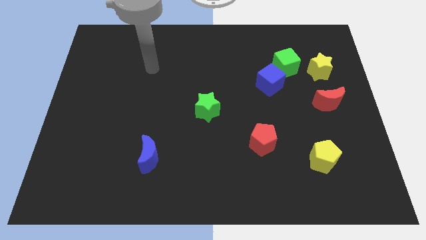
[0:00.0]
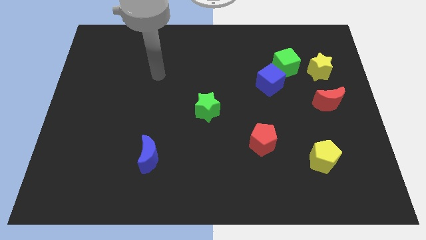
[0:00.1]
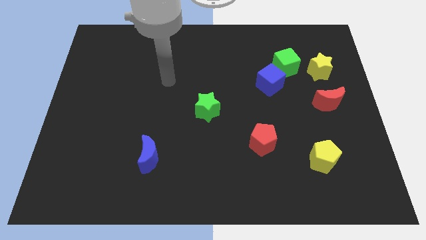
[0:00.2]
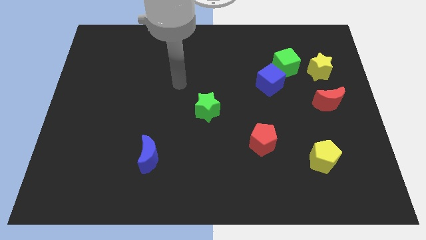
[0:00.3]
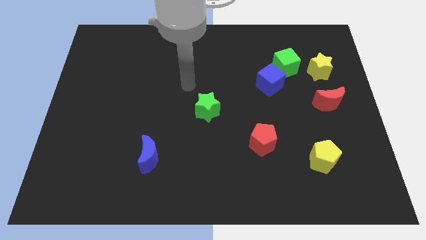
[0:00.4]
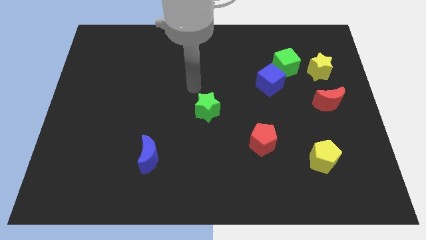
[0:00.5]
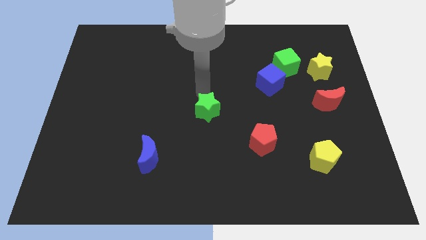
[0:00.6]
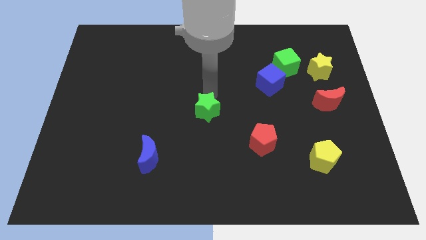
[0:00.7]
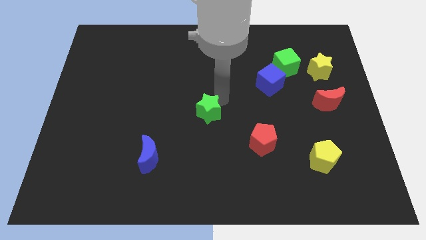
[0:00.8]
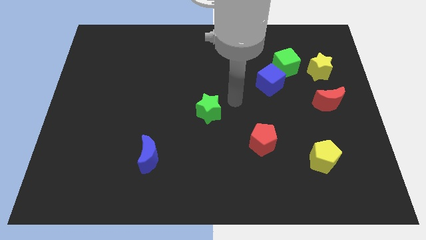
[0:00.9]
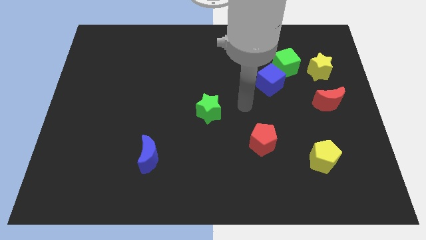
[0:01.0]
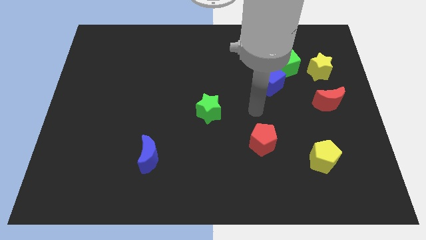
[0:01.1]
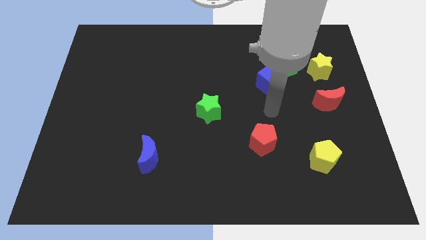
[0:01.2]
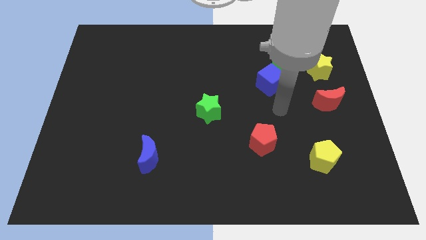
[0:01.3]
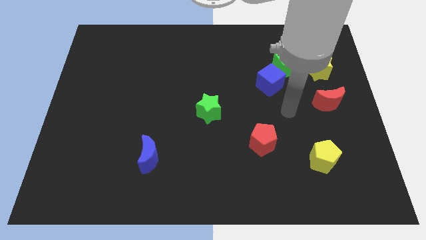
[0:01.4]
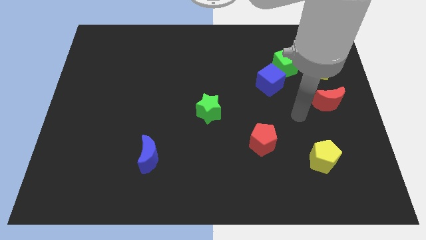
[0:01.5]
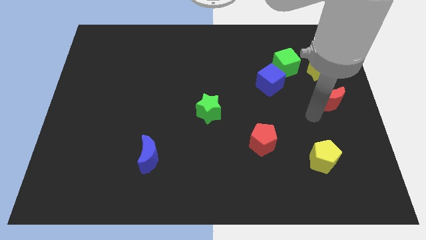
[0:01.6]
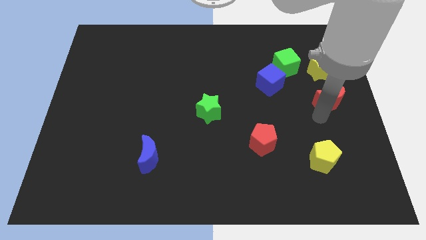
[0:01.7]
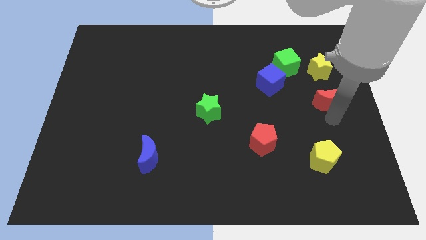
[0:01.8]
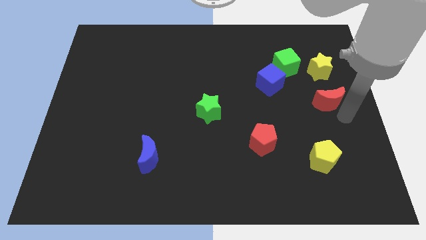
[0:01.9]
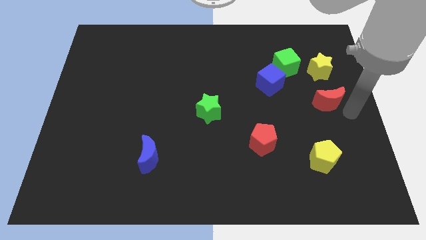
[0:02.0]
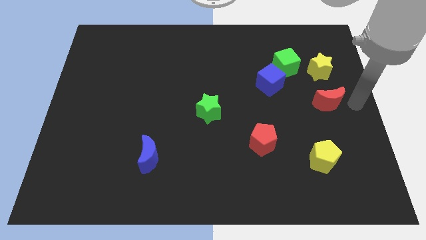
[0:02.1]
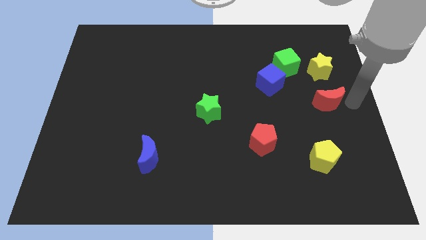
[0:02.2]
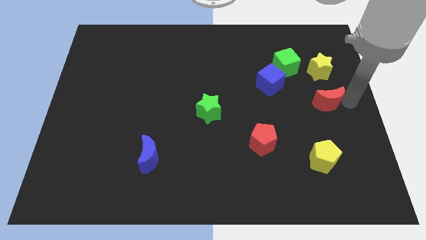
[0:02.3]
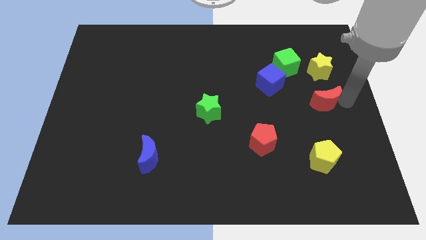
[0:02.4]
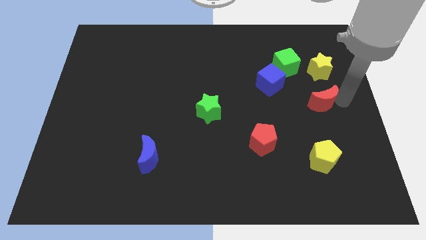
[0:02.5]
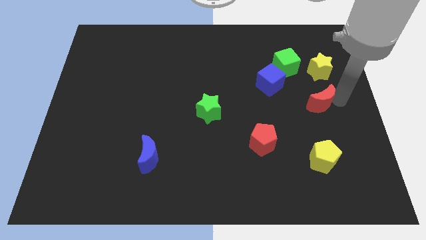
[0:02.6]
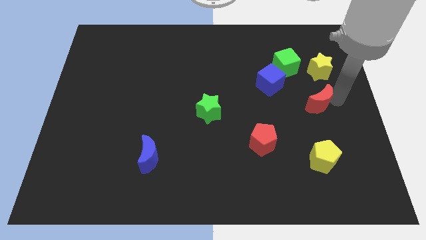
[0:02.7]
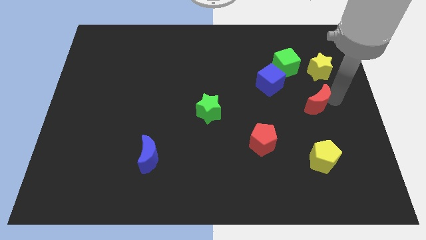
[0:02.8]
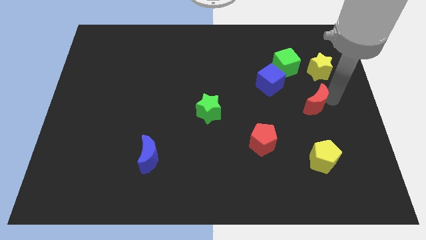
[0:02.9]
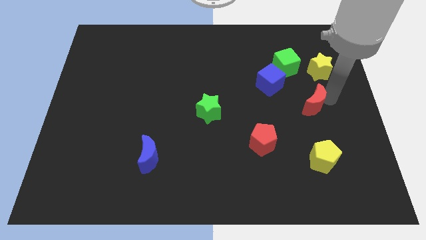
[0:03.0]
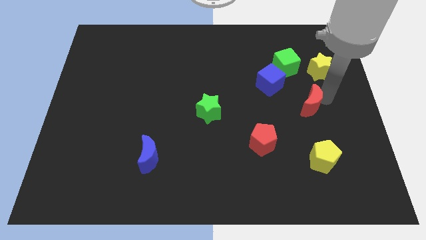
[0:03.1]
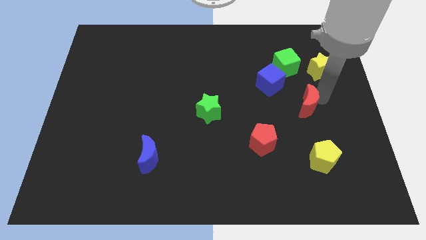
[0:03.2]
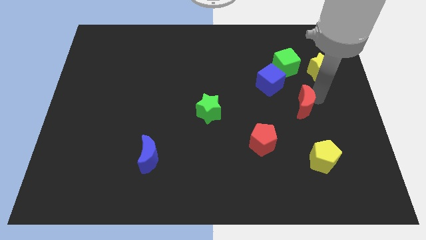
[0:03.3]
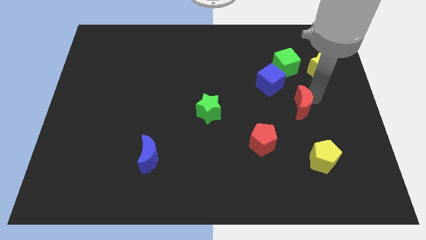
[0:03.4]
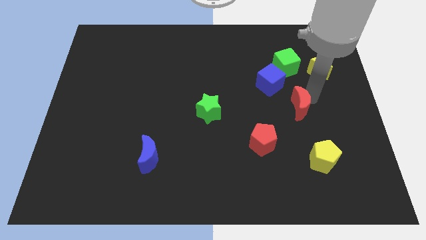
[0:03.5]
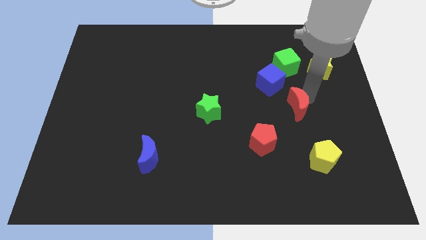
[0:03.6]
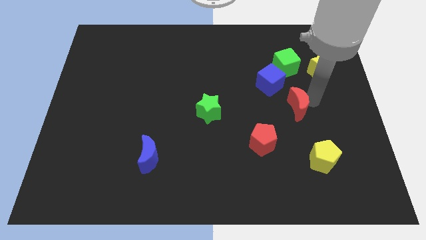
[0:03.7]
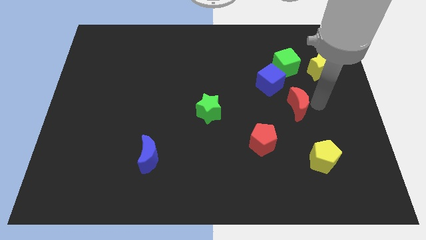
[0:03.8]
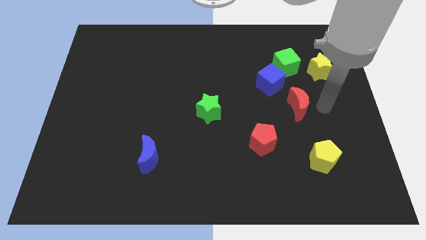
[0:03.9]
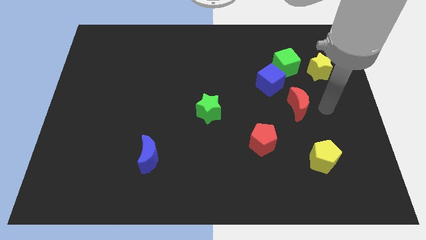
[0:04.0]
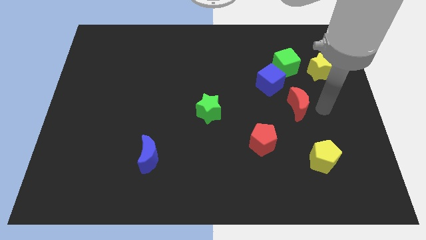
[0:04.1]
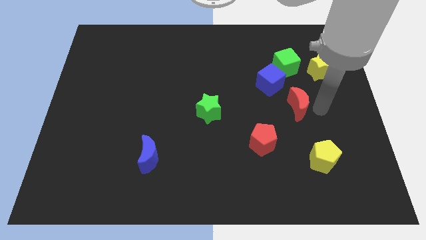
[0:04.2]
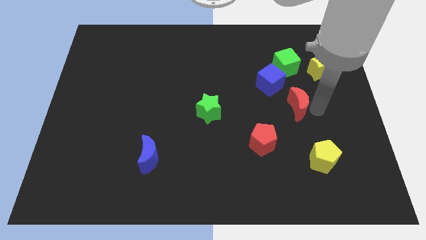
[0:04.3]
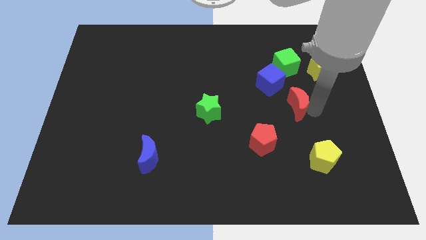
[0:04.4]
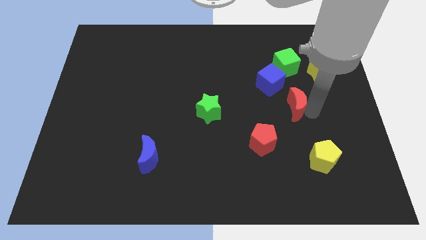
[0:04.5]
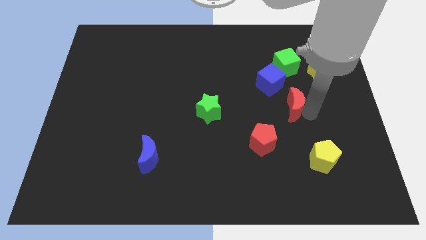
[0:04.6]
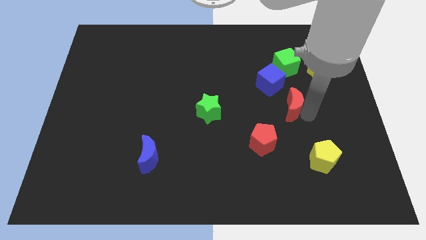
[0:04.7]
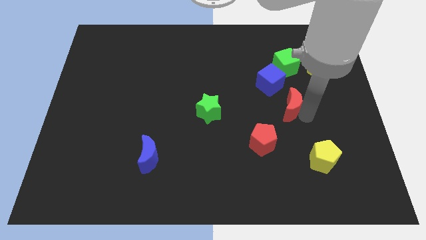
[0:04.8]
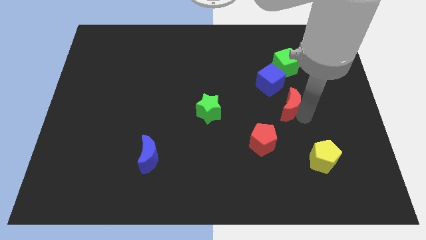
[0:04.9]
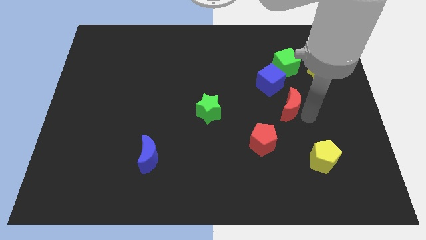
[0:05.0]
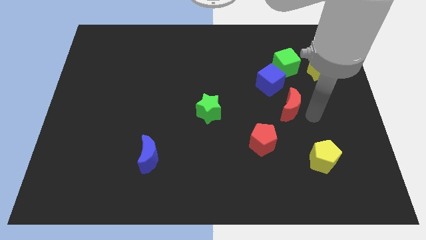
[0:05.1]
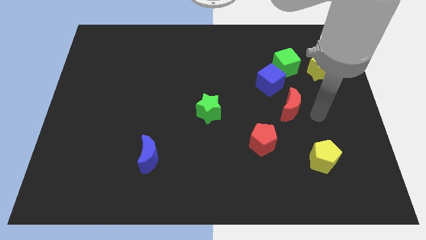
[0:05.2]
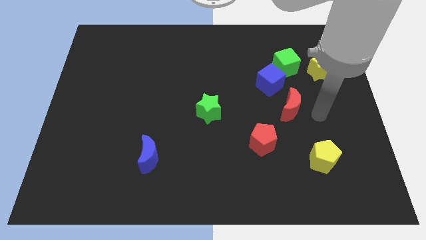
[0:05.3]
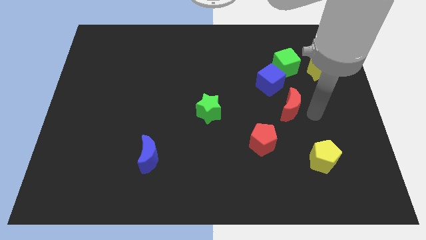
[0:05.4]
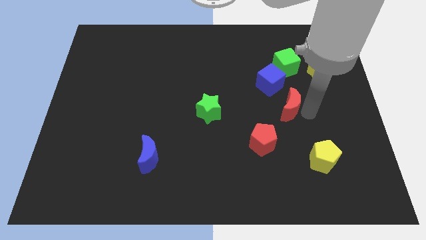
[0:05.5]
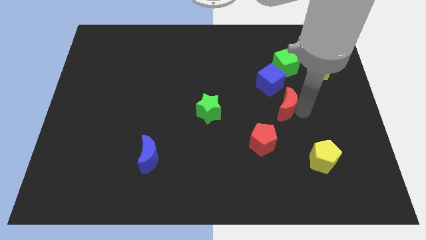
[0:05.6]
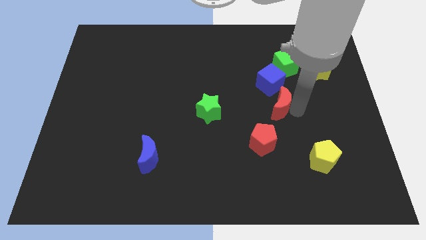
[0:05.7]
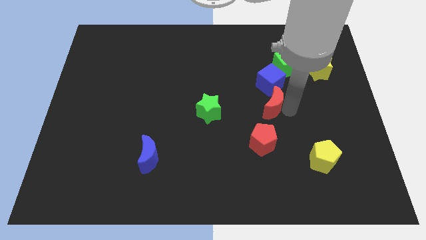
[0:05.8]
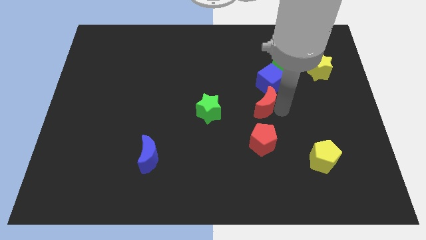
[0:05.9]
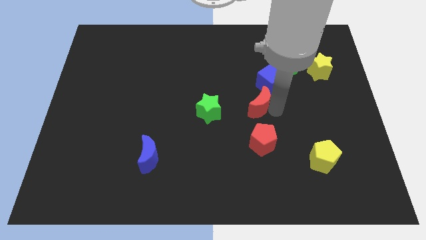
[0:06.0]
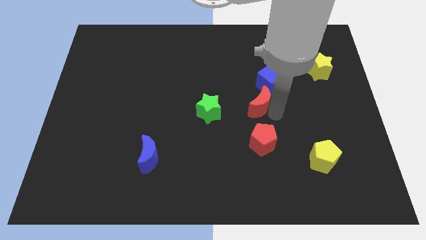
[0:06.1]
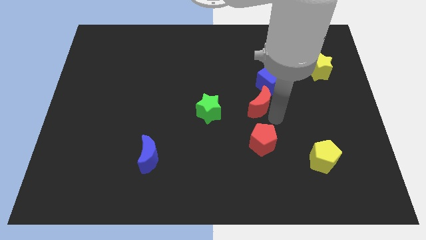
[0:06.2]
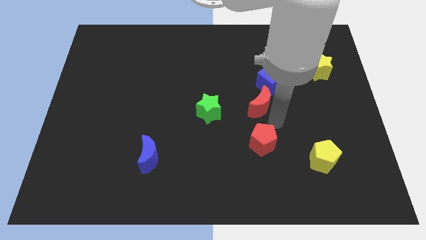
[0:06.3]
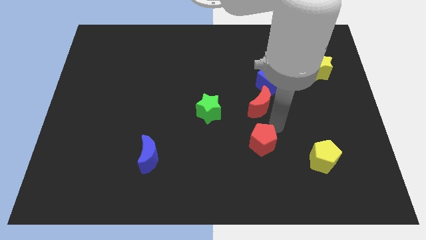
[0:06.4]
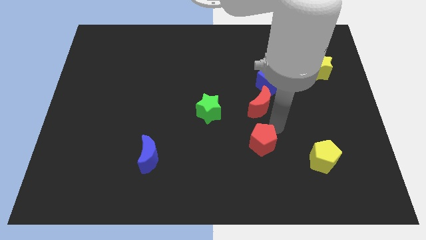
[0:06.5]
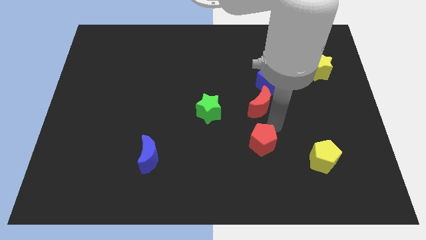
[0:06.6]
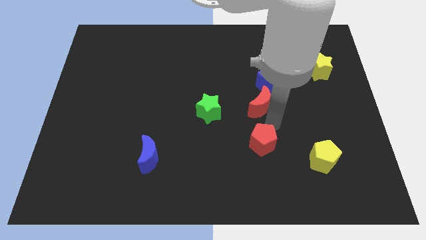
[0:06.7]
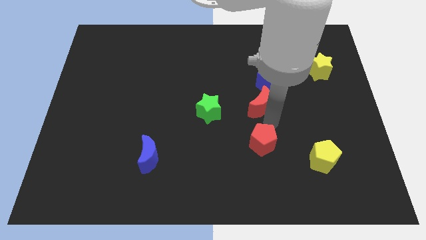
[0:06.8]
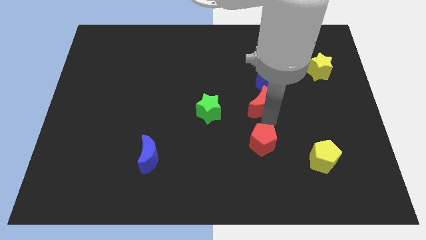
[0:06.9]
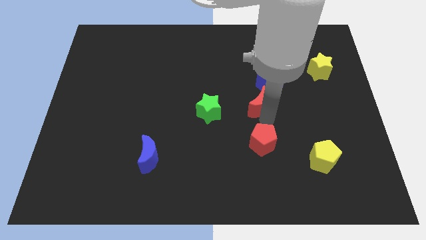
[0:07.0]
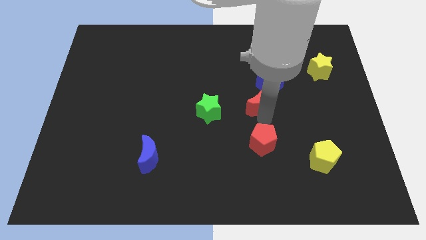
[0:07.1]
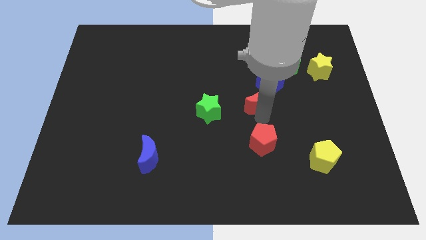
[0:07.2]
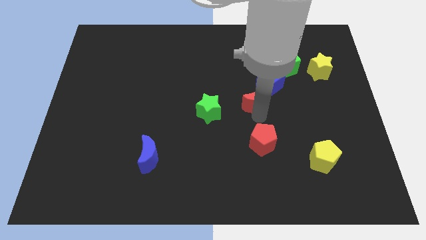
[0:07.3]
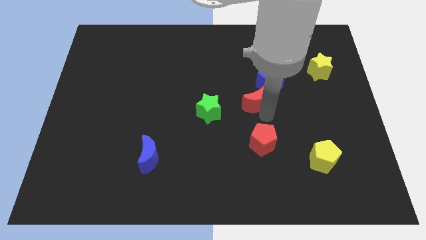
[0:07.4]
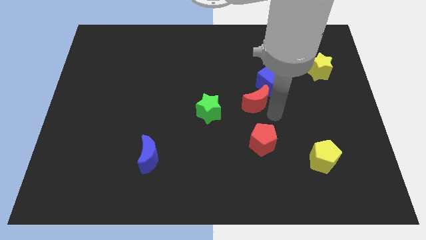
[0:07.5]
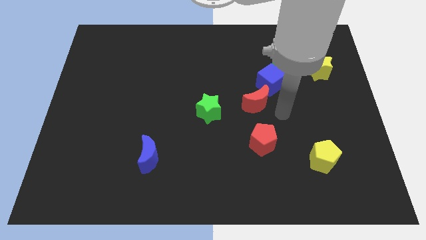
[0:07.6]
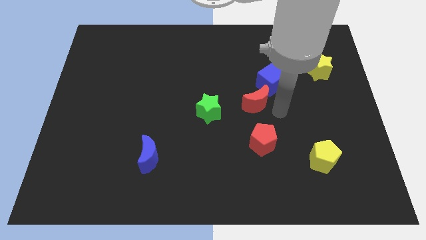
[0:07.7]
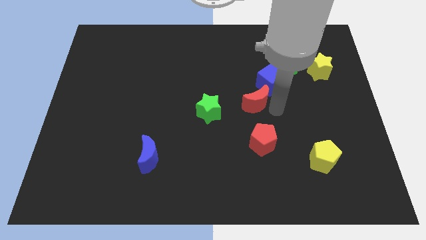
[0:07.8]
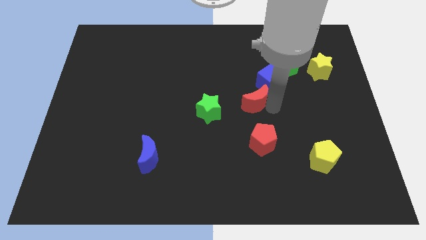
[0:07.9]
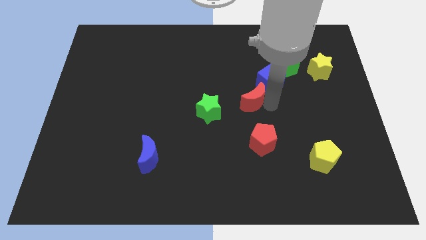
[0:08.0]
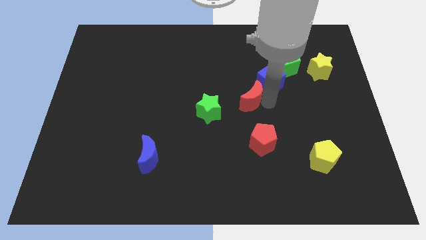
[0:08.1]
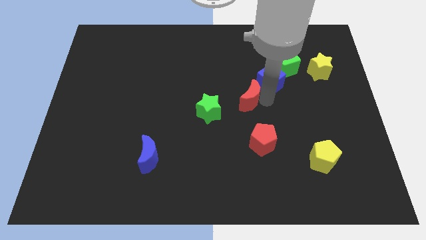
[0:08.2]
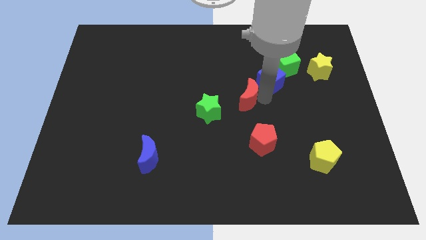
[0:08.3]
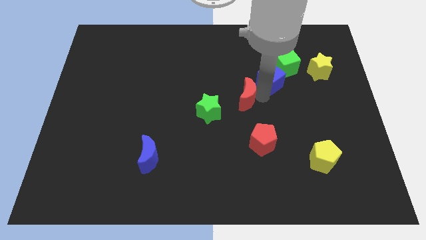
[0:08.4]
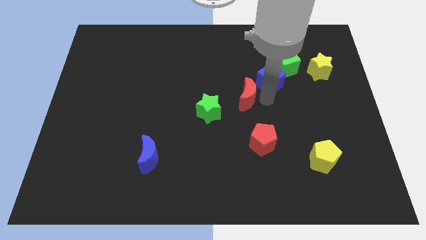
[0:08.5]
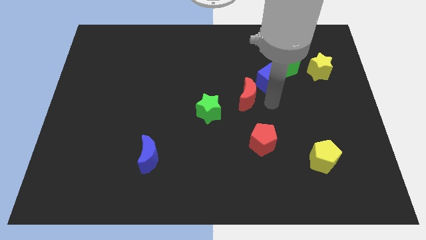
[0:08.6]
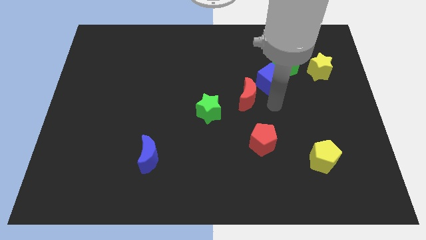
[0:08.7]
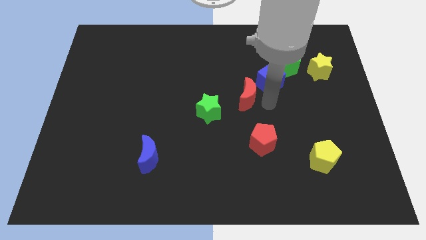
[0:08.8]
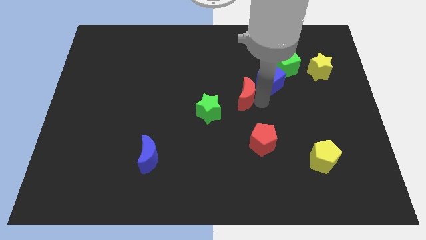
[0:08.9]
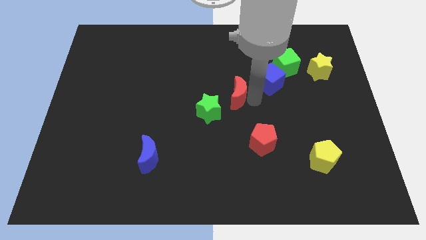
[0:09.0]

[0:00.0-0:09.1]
slide the red moon to the left
